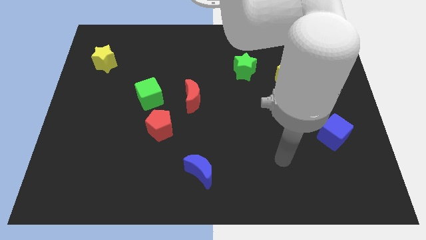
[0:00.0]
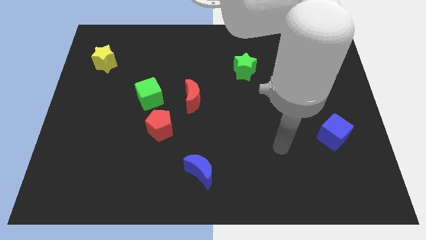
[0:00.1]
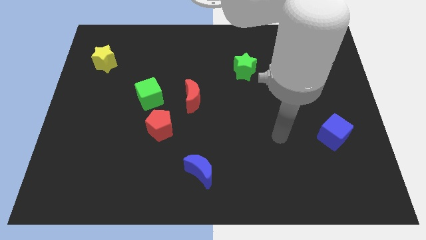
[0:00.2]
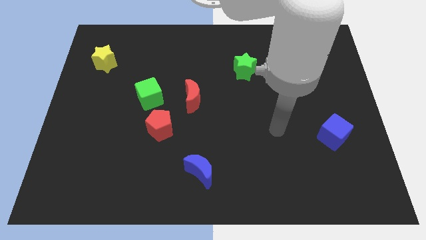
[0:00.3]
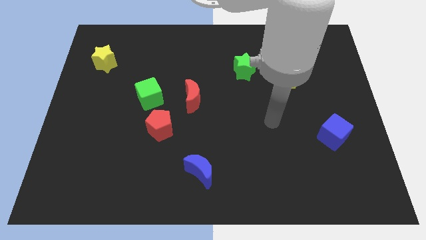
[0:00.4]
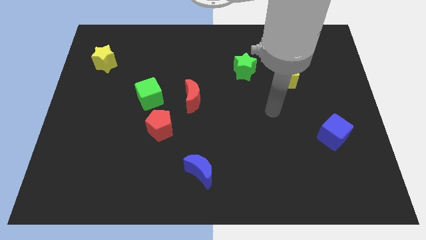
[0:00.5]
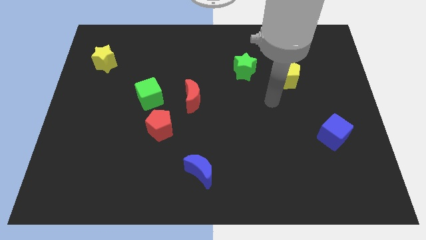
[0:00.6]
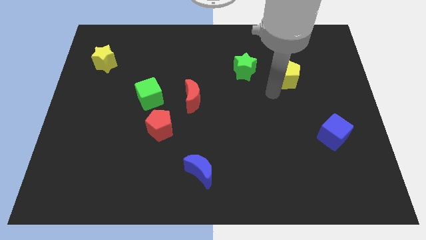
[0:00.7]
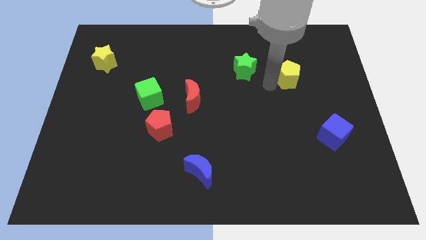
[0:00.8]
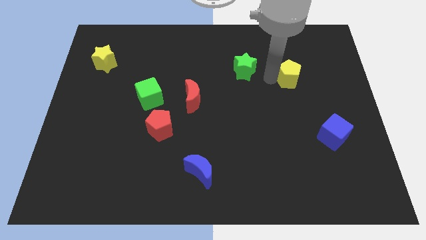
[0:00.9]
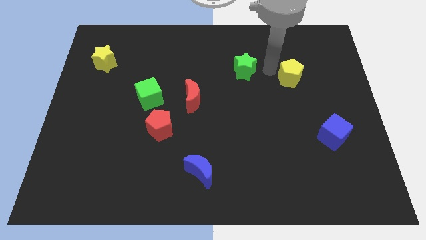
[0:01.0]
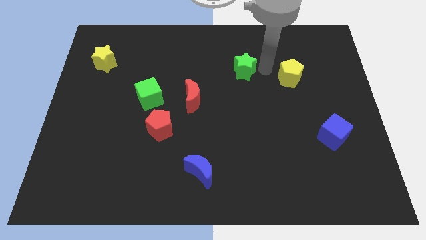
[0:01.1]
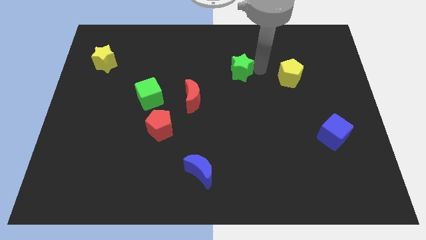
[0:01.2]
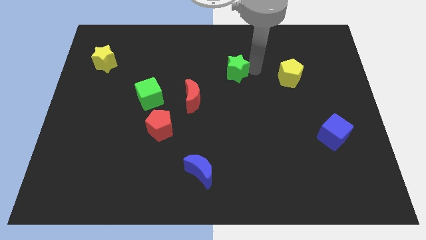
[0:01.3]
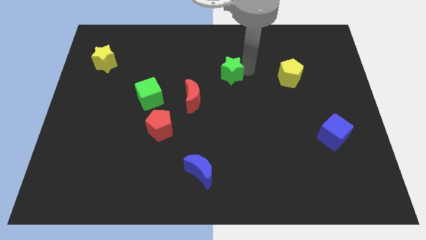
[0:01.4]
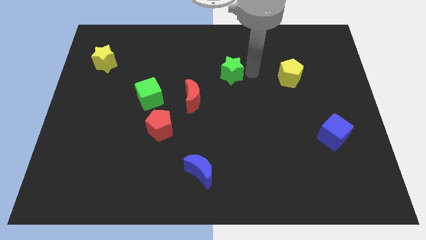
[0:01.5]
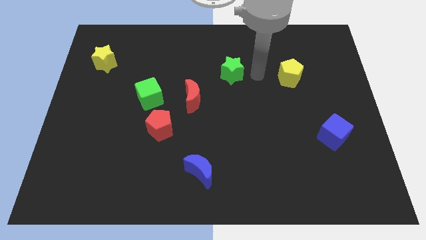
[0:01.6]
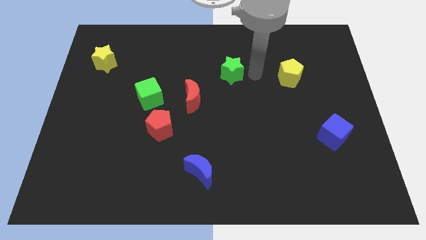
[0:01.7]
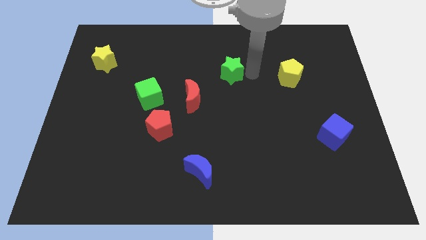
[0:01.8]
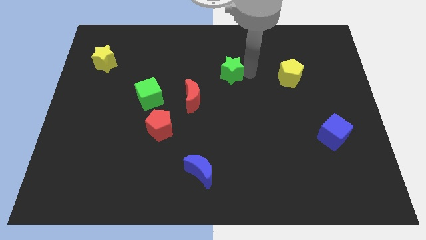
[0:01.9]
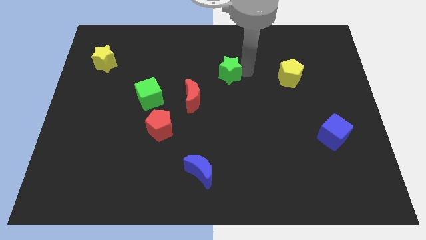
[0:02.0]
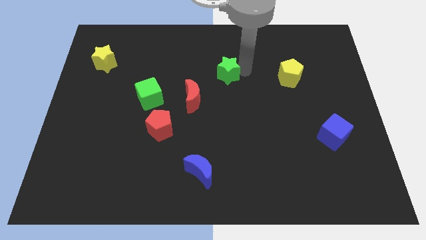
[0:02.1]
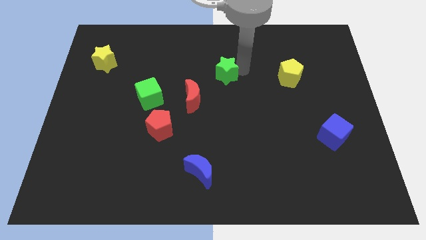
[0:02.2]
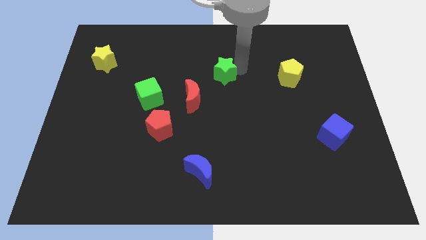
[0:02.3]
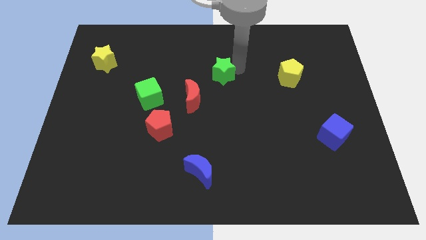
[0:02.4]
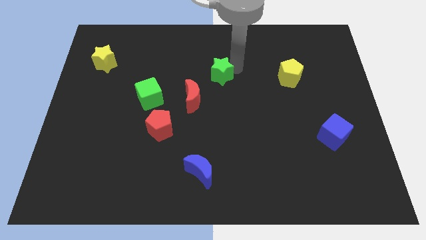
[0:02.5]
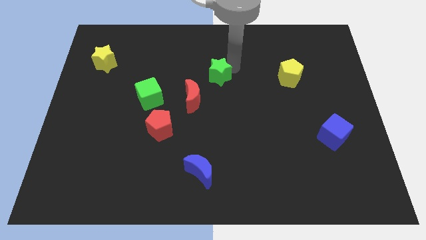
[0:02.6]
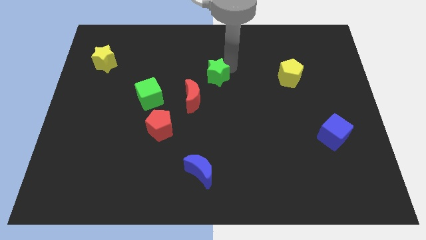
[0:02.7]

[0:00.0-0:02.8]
slightly move the green star to the left

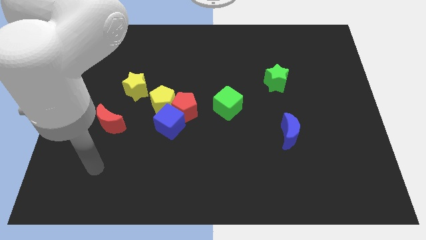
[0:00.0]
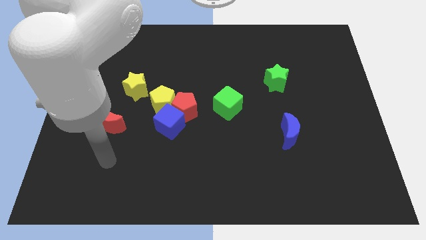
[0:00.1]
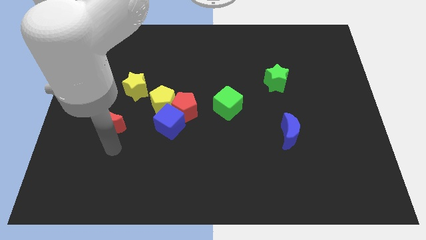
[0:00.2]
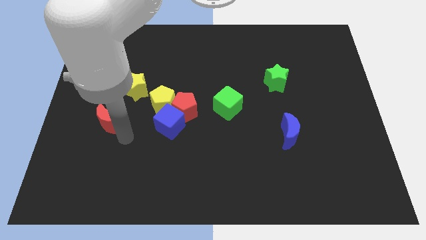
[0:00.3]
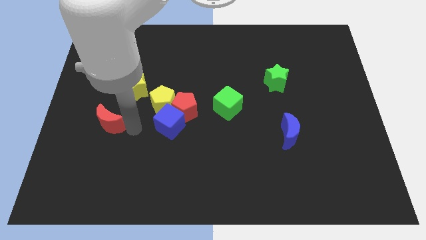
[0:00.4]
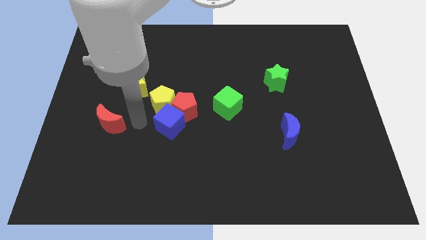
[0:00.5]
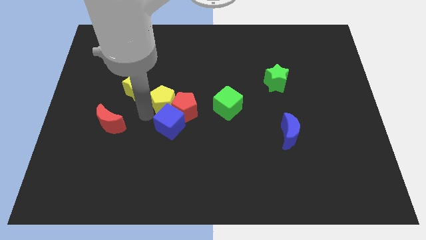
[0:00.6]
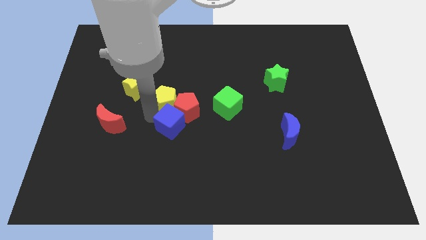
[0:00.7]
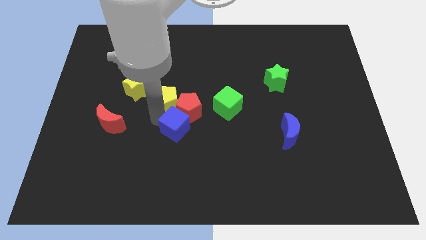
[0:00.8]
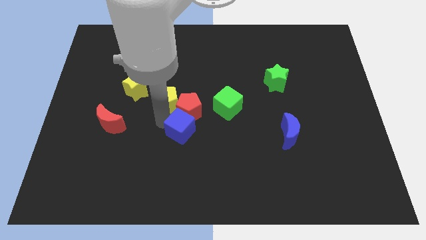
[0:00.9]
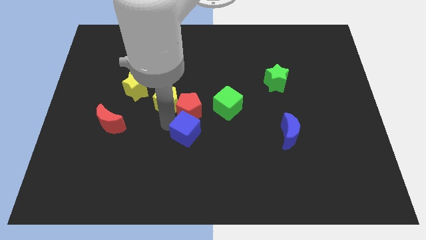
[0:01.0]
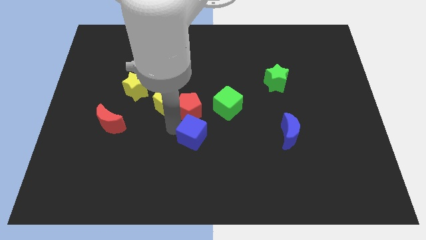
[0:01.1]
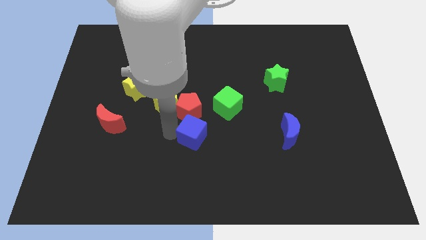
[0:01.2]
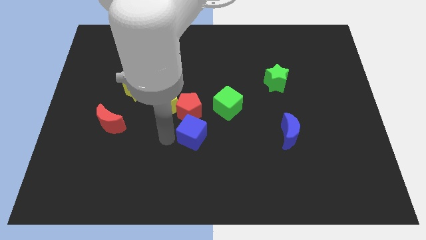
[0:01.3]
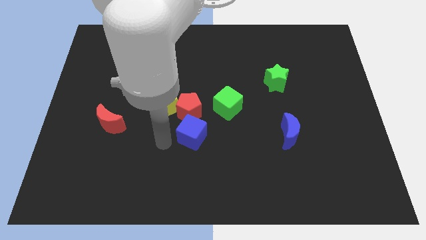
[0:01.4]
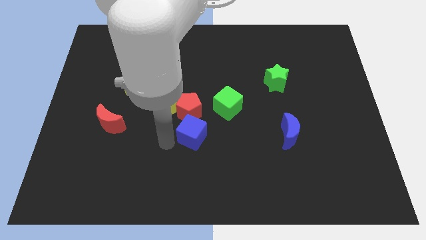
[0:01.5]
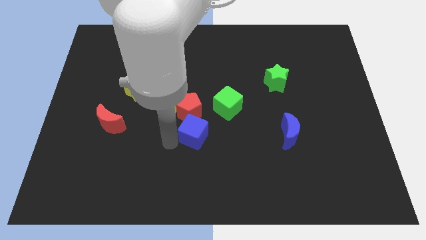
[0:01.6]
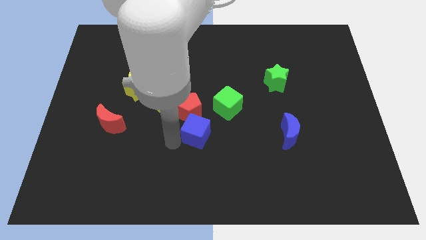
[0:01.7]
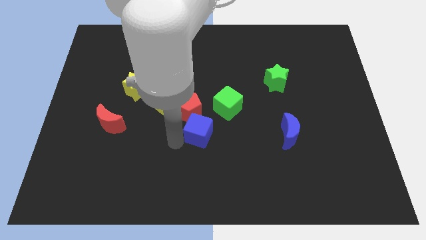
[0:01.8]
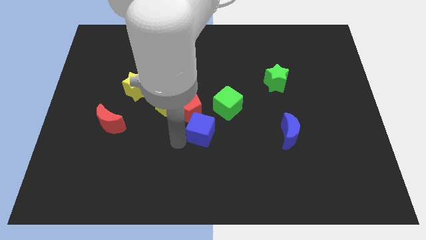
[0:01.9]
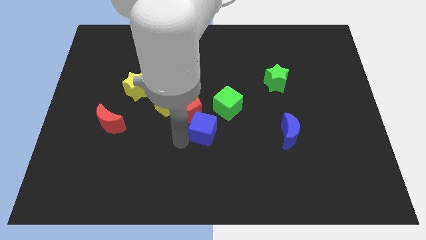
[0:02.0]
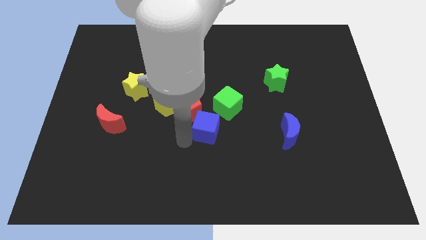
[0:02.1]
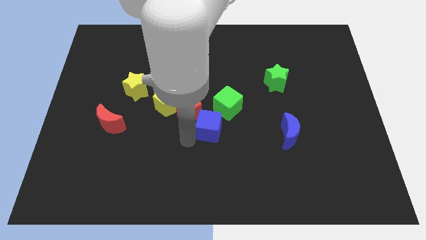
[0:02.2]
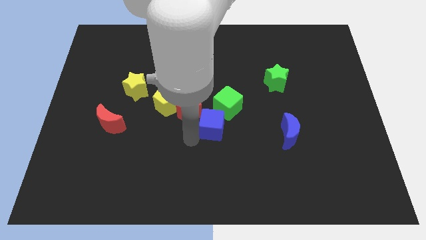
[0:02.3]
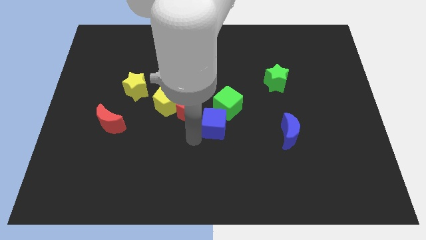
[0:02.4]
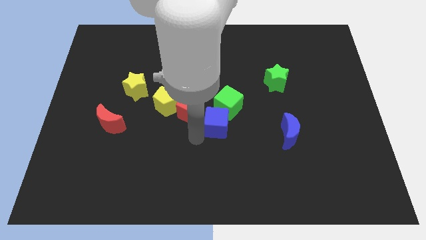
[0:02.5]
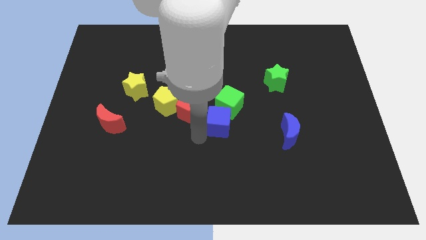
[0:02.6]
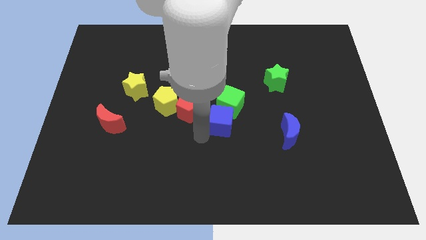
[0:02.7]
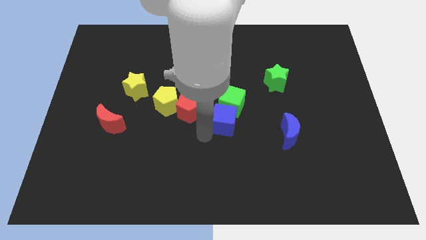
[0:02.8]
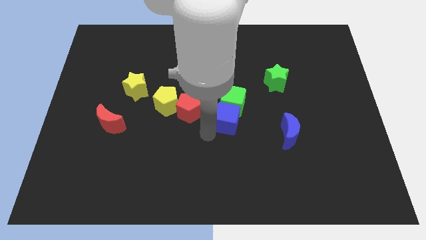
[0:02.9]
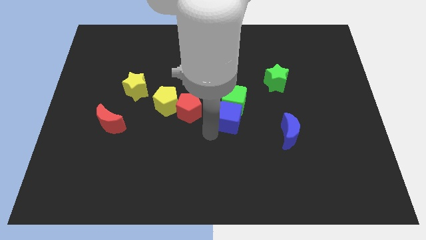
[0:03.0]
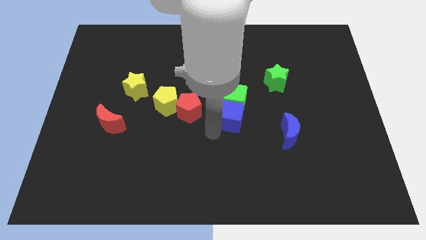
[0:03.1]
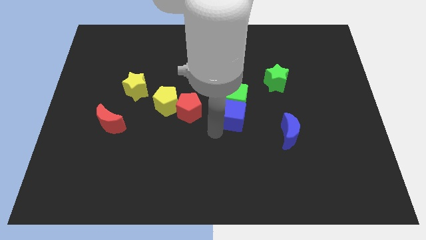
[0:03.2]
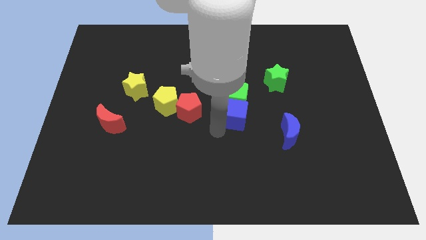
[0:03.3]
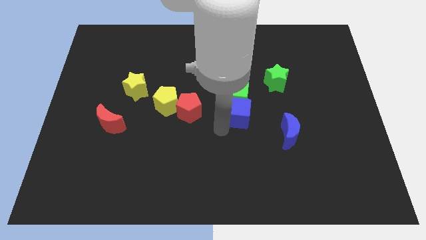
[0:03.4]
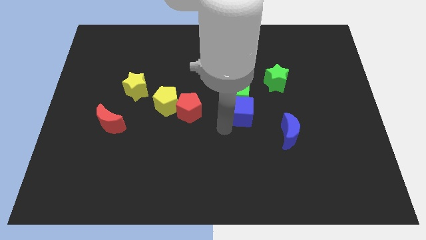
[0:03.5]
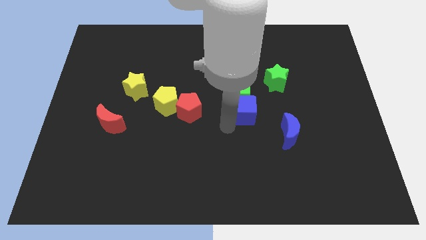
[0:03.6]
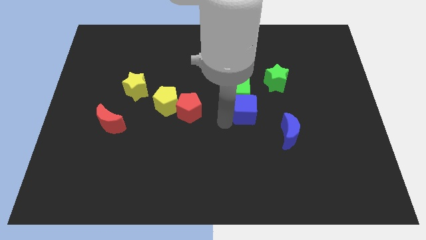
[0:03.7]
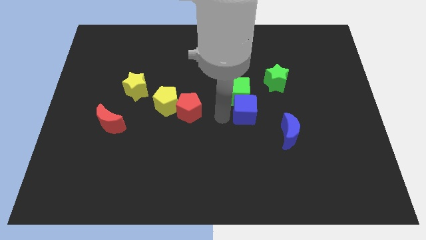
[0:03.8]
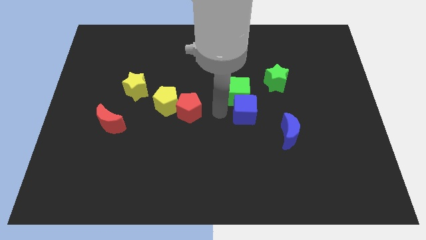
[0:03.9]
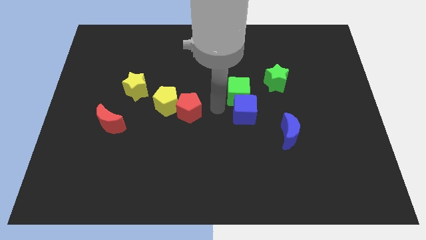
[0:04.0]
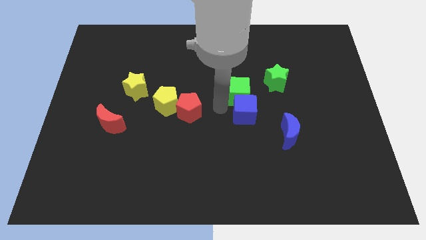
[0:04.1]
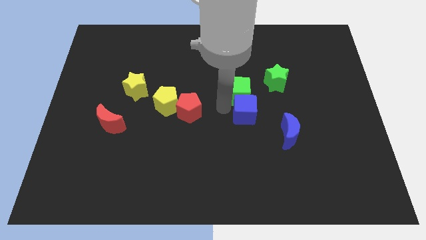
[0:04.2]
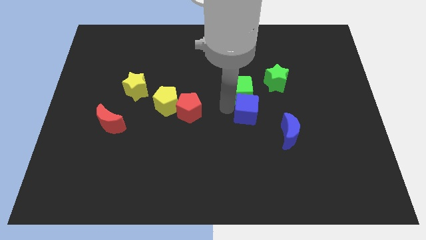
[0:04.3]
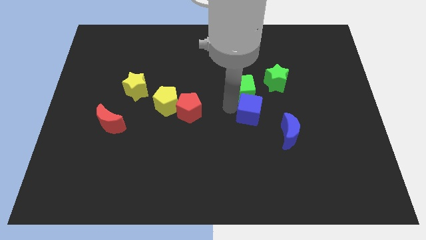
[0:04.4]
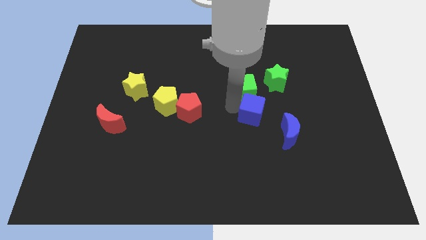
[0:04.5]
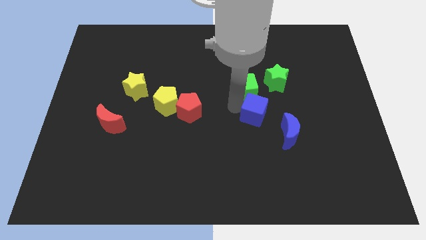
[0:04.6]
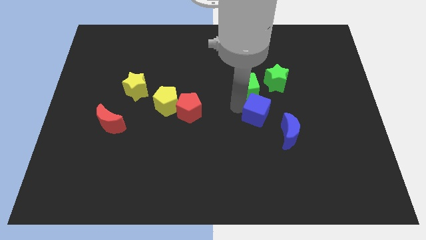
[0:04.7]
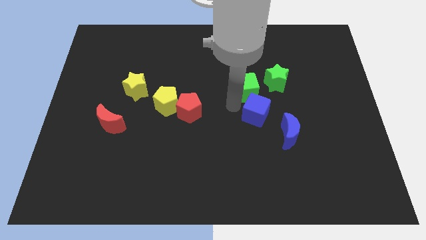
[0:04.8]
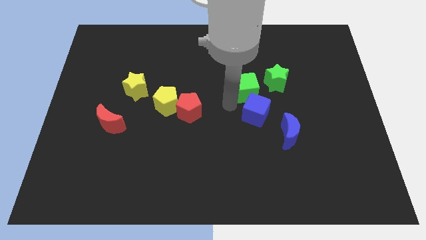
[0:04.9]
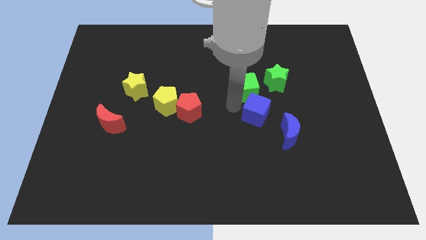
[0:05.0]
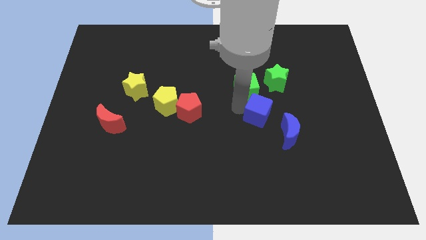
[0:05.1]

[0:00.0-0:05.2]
push the blue cube right
